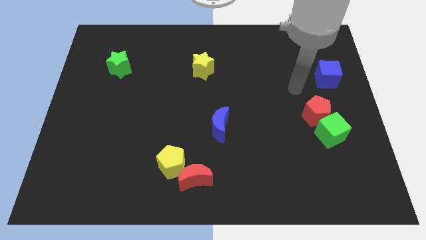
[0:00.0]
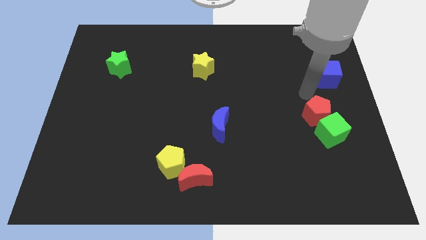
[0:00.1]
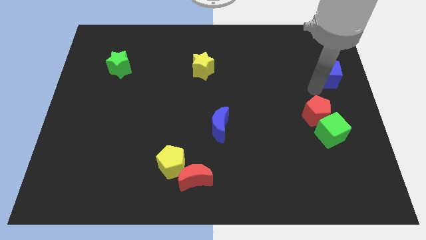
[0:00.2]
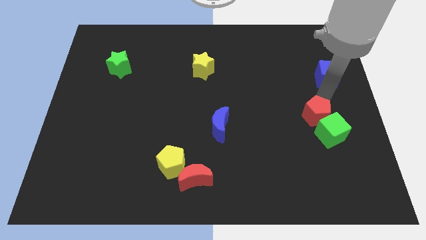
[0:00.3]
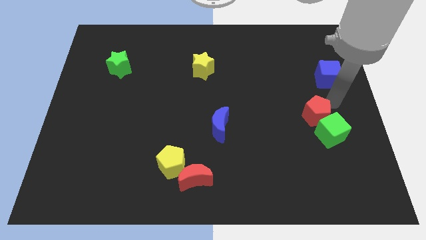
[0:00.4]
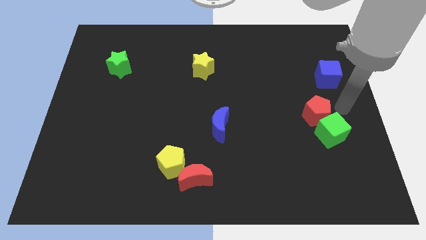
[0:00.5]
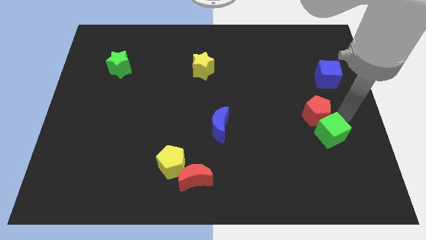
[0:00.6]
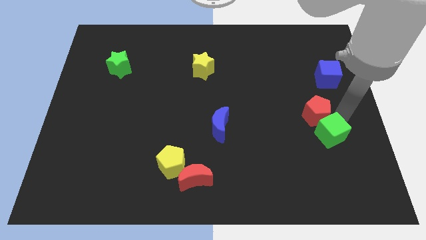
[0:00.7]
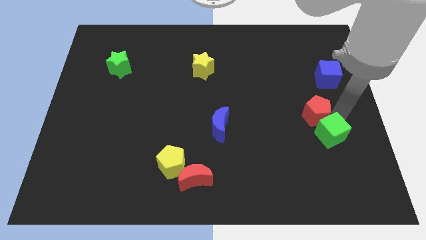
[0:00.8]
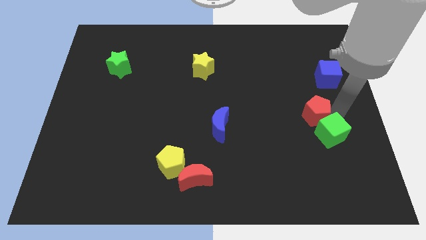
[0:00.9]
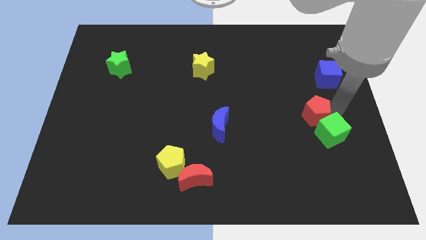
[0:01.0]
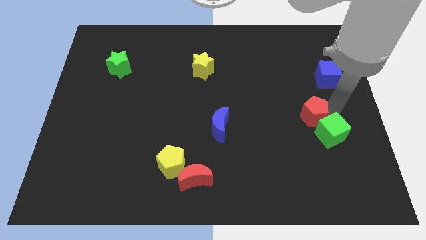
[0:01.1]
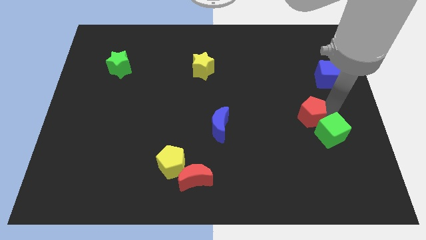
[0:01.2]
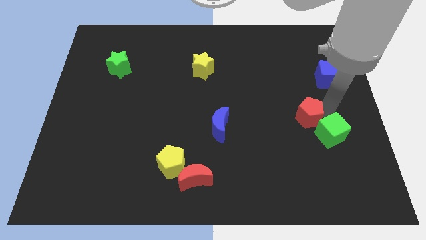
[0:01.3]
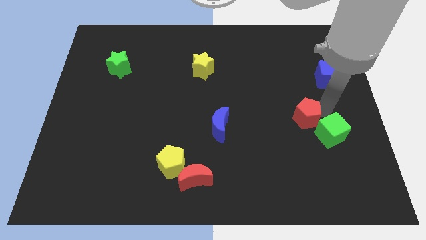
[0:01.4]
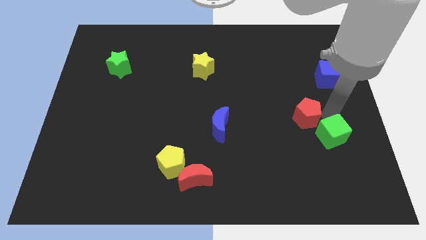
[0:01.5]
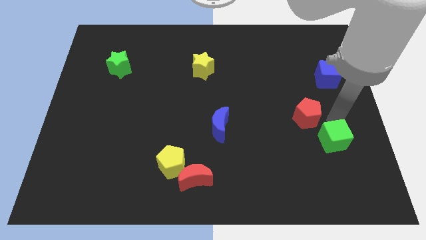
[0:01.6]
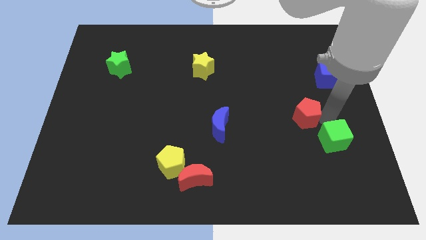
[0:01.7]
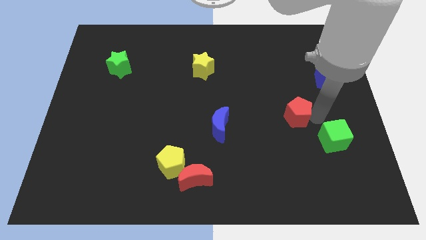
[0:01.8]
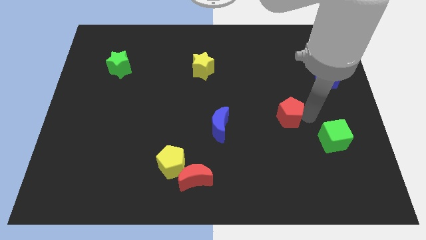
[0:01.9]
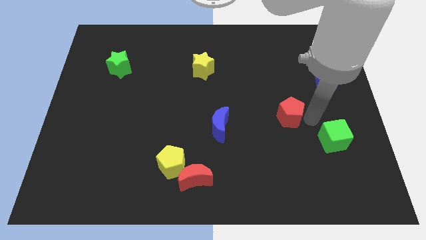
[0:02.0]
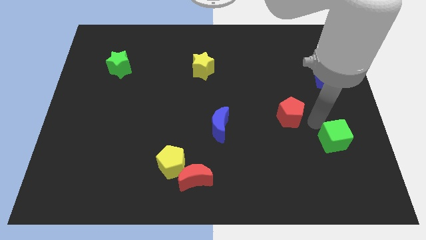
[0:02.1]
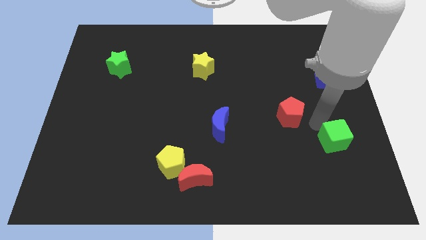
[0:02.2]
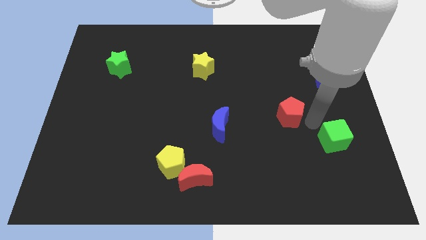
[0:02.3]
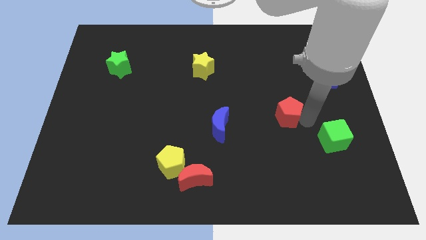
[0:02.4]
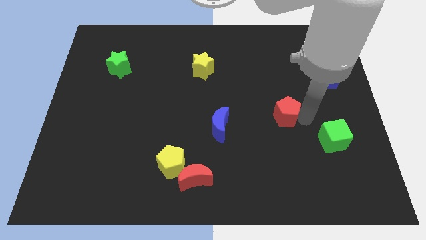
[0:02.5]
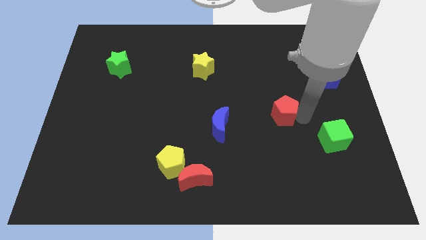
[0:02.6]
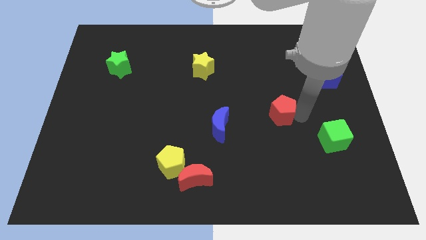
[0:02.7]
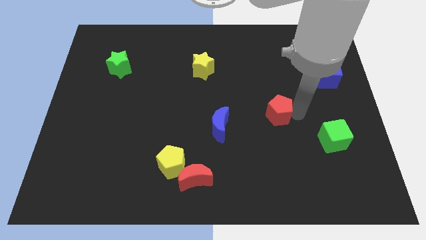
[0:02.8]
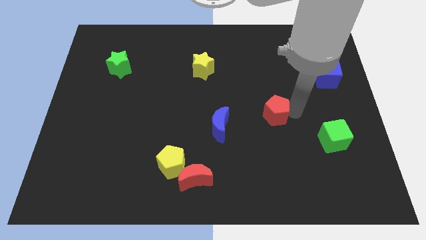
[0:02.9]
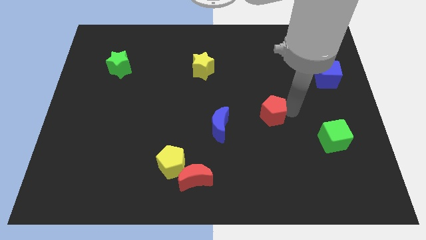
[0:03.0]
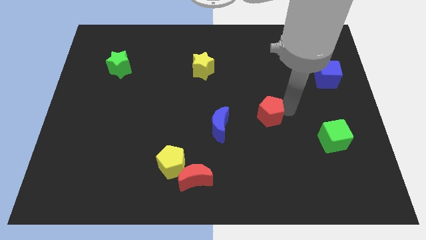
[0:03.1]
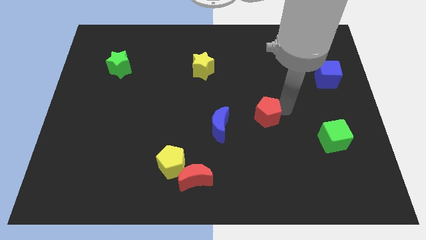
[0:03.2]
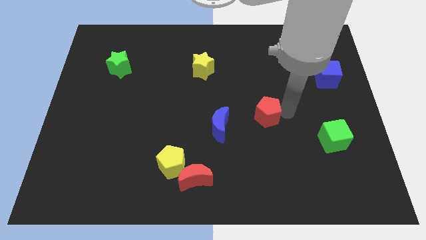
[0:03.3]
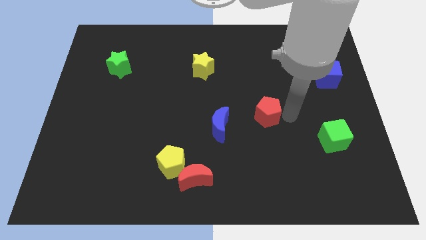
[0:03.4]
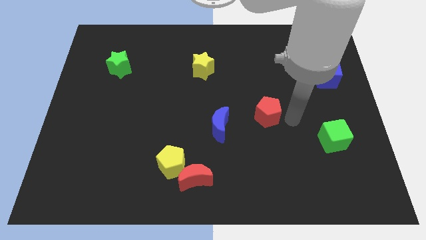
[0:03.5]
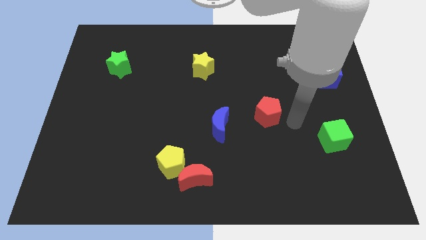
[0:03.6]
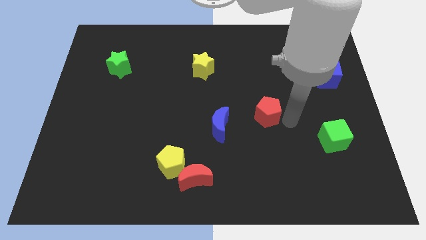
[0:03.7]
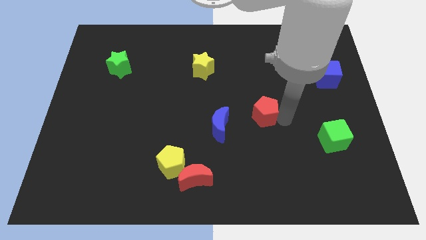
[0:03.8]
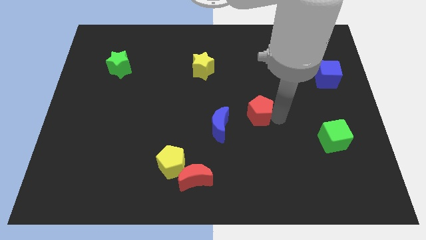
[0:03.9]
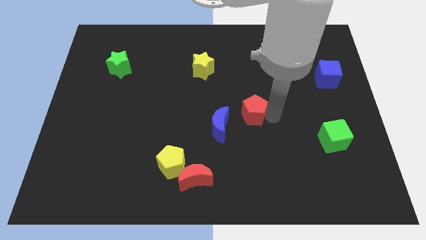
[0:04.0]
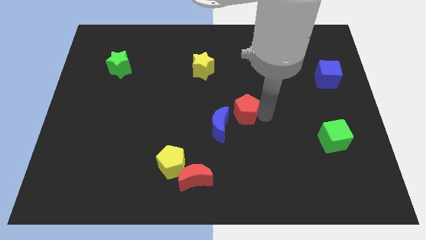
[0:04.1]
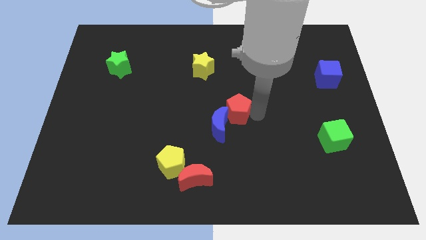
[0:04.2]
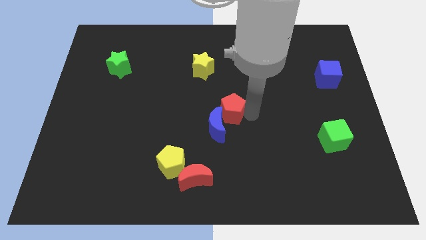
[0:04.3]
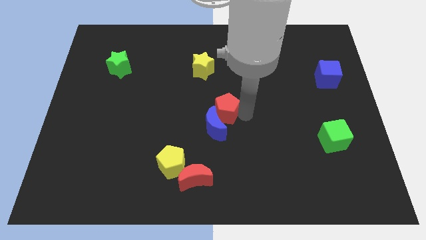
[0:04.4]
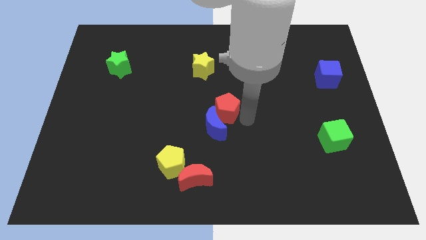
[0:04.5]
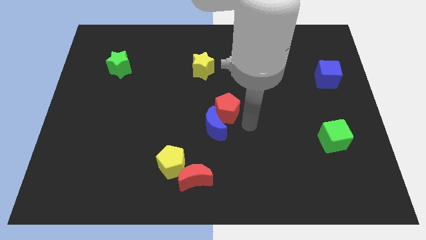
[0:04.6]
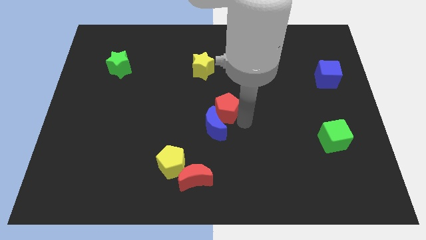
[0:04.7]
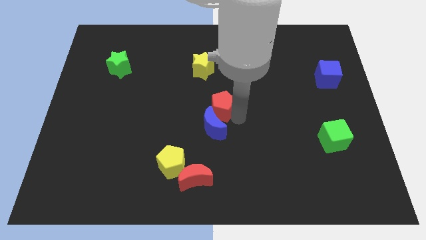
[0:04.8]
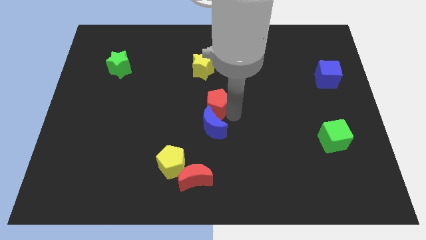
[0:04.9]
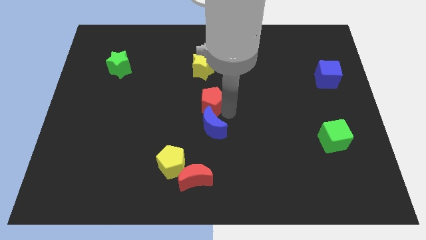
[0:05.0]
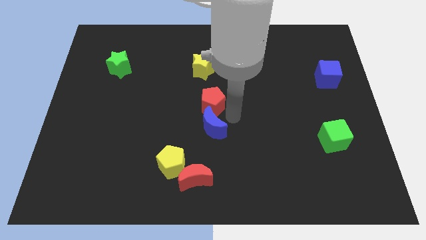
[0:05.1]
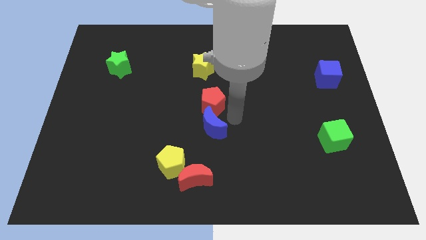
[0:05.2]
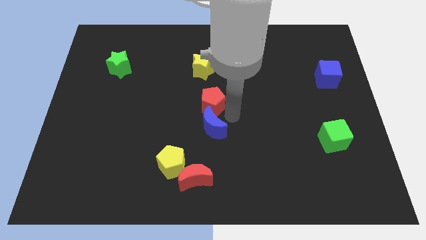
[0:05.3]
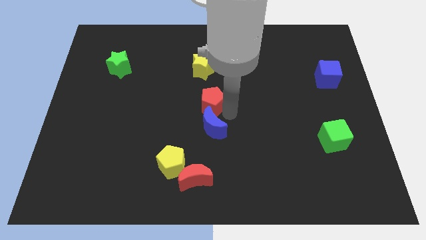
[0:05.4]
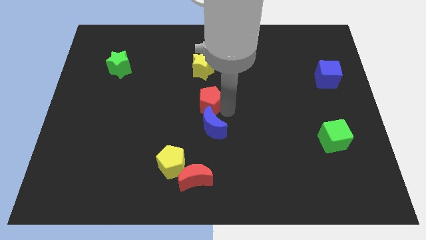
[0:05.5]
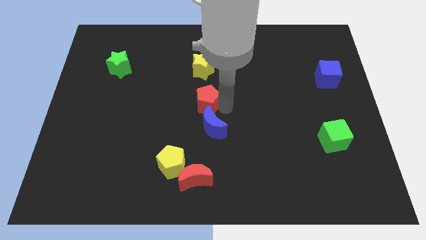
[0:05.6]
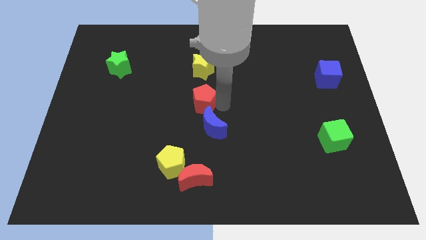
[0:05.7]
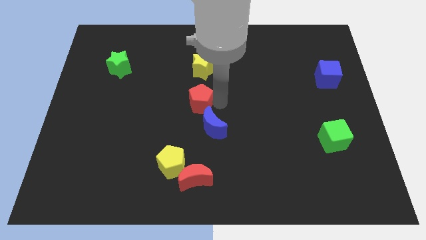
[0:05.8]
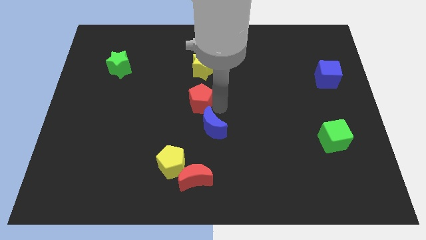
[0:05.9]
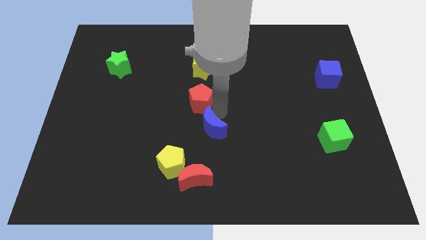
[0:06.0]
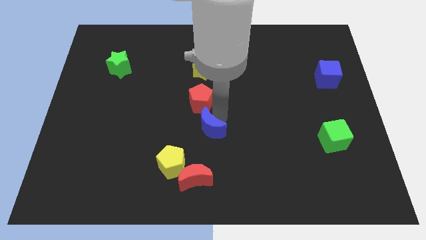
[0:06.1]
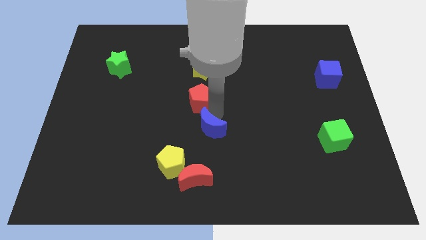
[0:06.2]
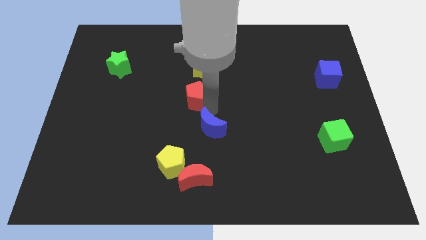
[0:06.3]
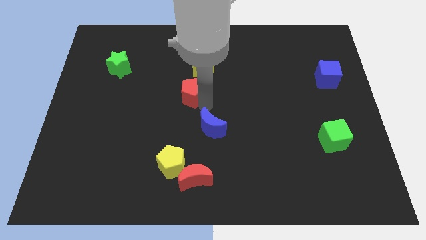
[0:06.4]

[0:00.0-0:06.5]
move the red pentagon to the bottom left of the yellow star

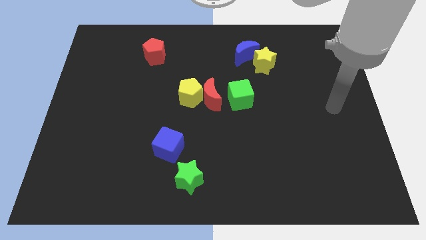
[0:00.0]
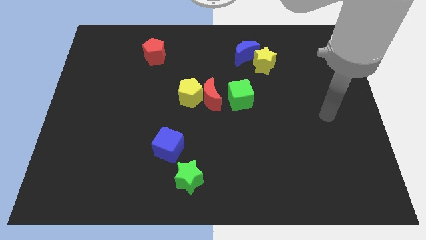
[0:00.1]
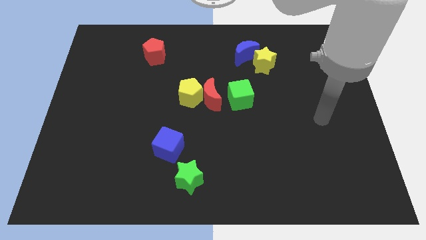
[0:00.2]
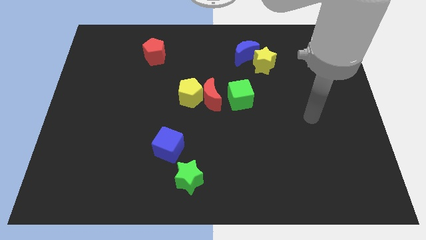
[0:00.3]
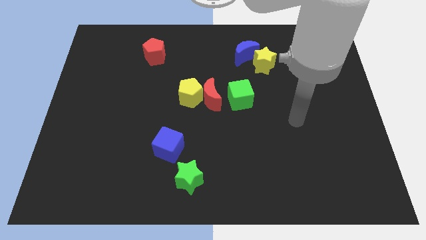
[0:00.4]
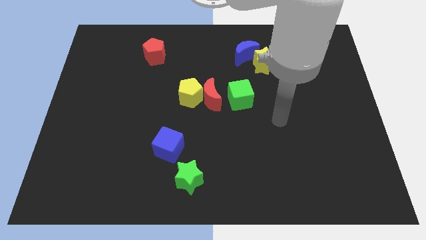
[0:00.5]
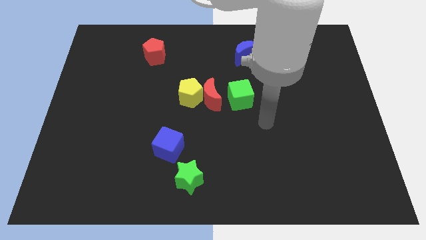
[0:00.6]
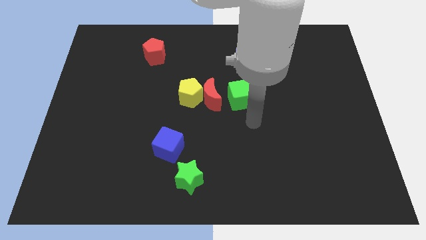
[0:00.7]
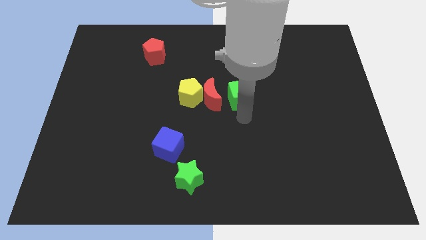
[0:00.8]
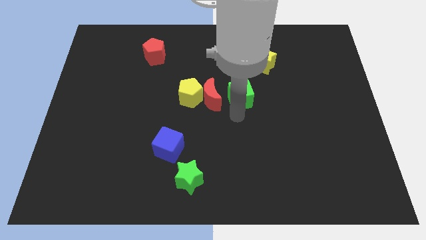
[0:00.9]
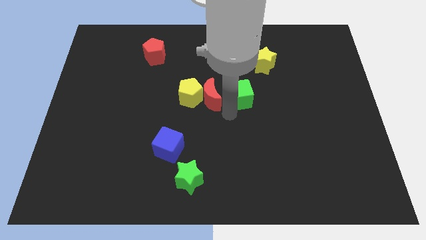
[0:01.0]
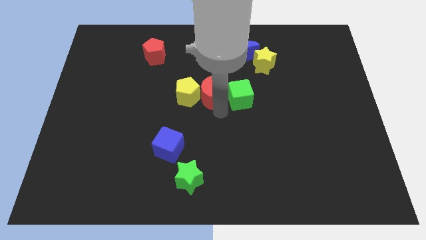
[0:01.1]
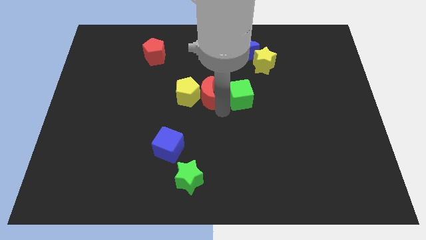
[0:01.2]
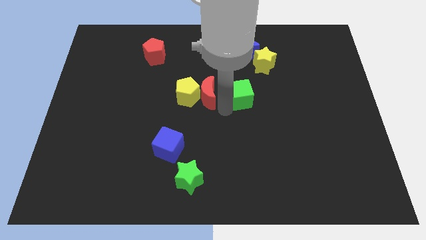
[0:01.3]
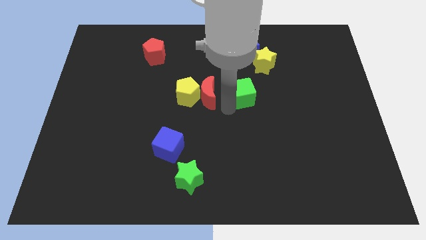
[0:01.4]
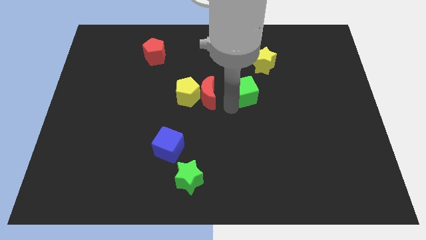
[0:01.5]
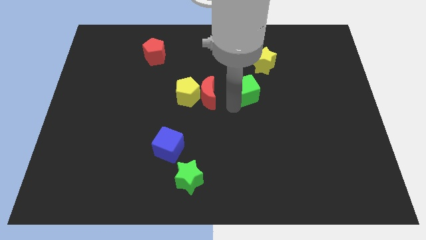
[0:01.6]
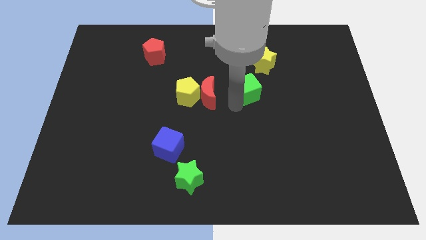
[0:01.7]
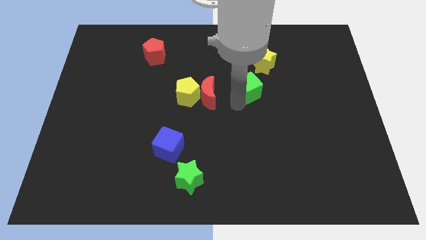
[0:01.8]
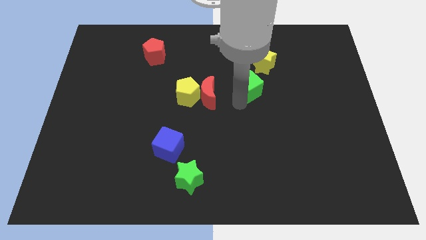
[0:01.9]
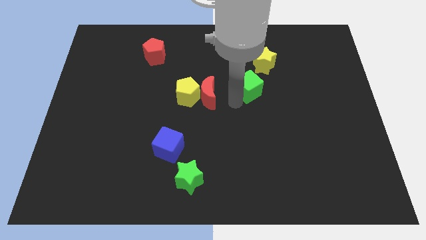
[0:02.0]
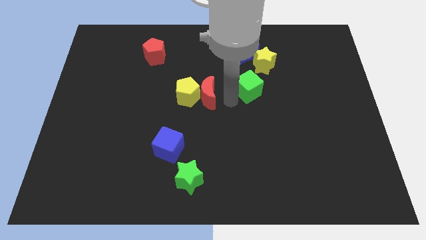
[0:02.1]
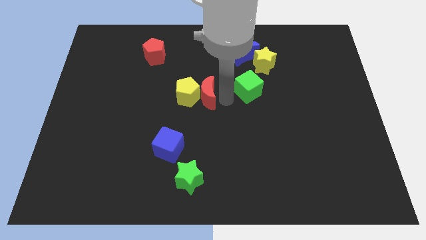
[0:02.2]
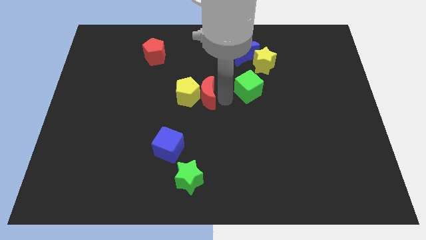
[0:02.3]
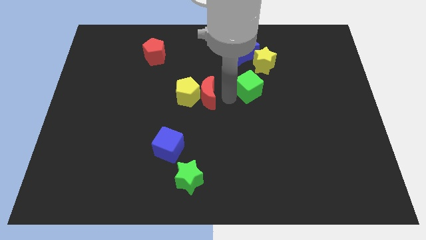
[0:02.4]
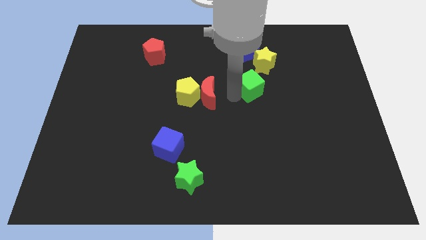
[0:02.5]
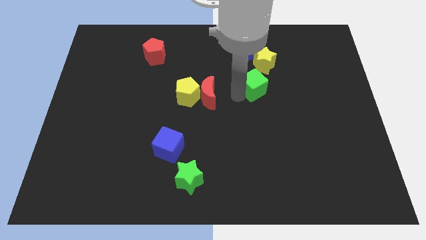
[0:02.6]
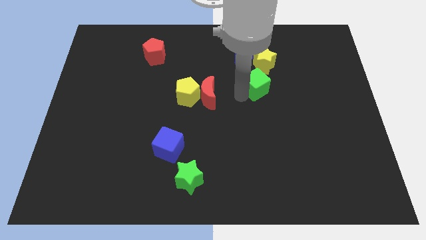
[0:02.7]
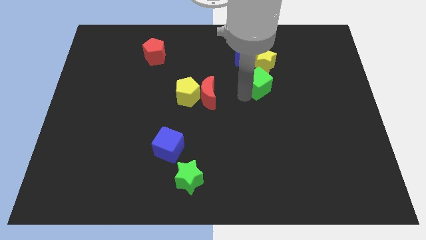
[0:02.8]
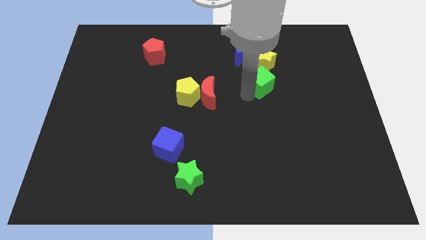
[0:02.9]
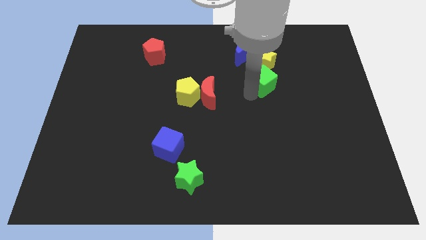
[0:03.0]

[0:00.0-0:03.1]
move the green cube to the bottom right of the blue moon
